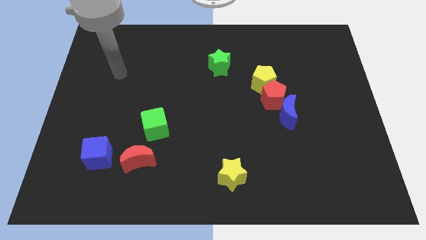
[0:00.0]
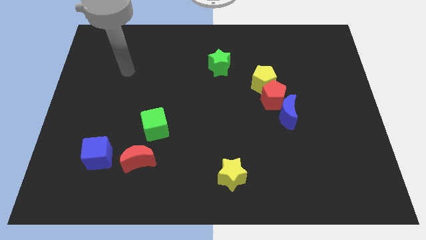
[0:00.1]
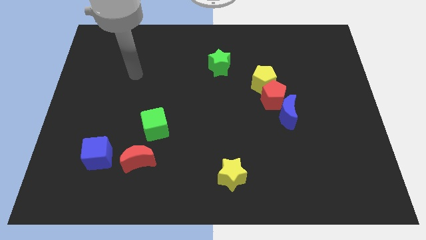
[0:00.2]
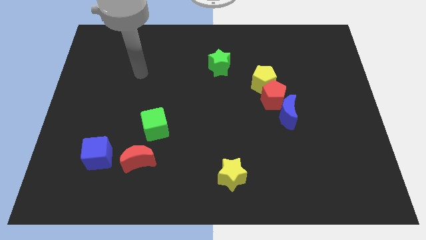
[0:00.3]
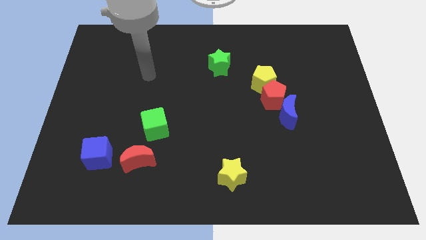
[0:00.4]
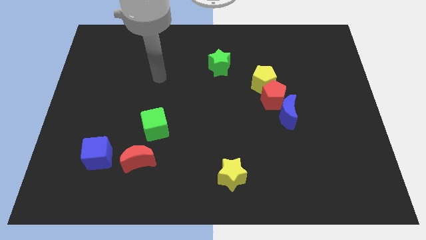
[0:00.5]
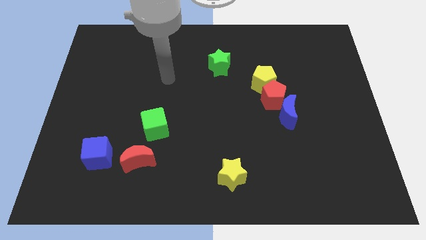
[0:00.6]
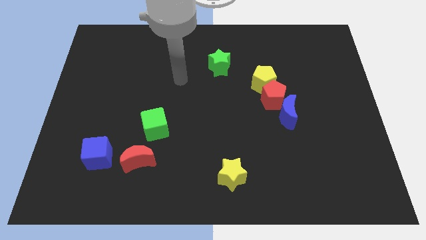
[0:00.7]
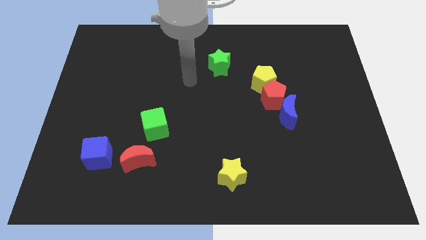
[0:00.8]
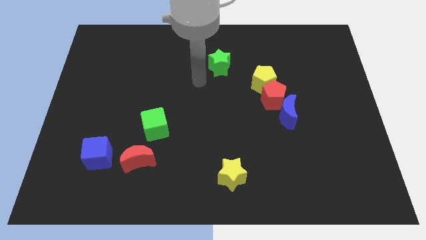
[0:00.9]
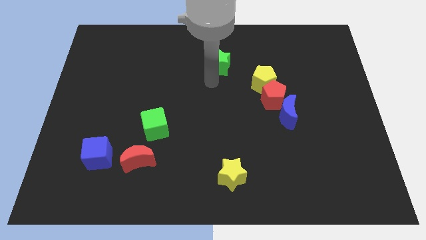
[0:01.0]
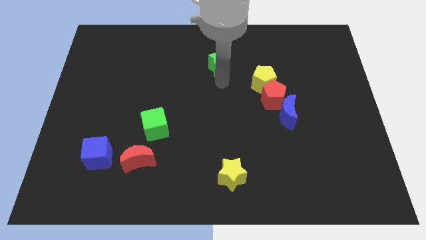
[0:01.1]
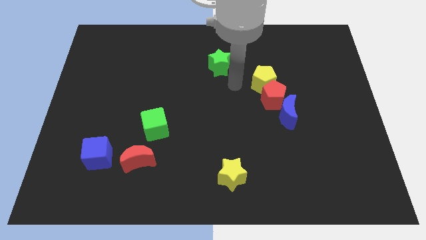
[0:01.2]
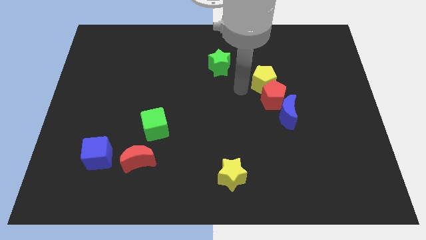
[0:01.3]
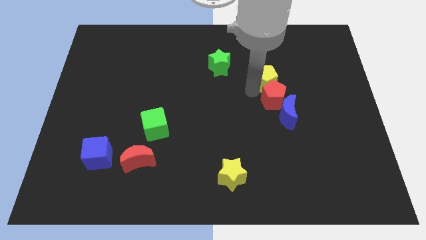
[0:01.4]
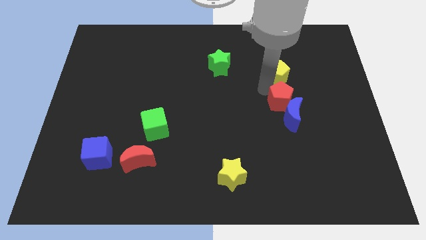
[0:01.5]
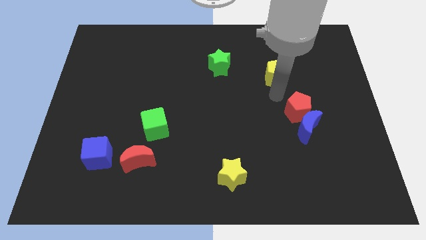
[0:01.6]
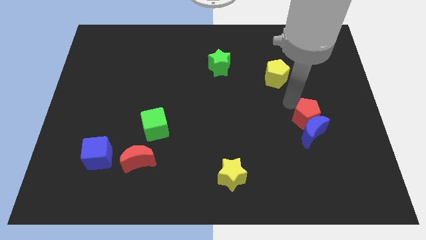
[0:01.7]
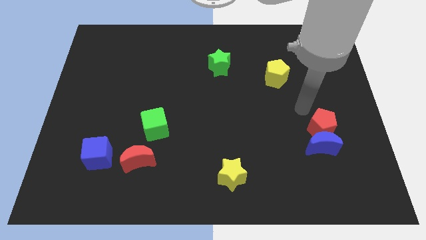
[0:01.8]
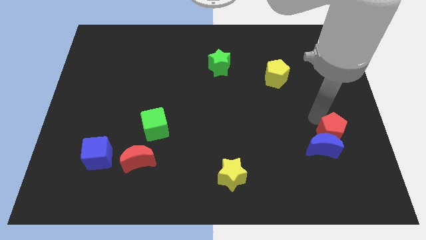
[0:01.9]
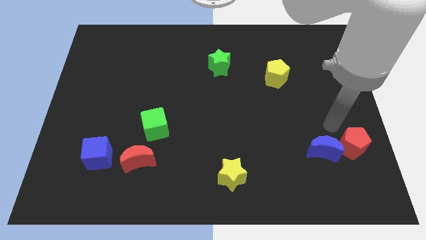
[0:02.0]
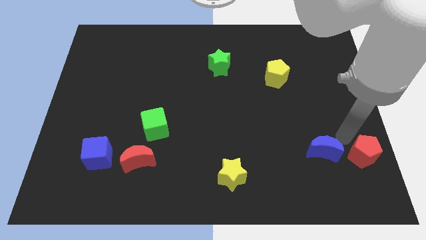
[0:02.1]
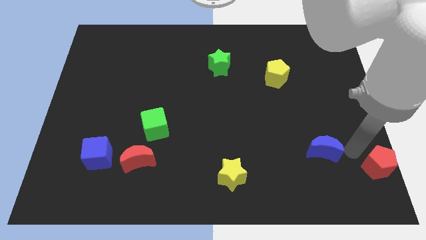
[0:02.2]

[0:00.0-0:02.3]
pull the blue moon apart from the red pentagon

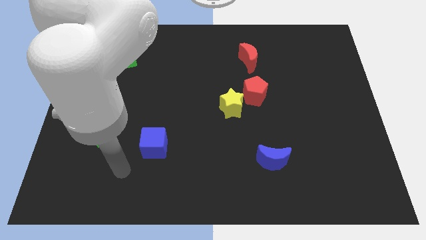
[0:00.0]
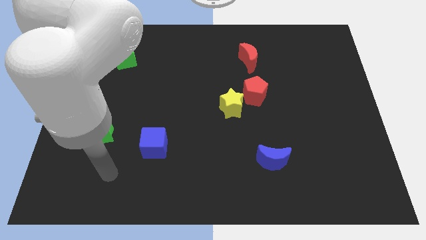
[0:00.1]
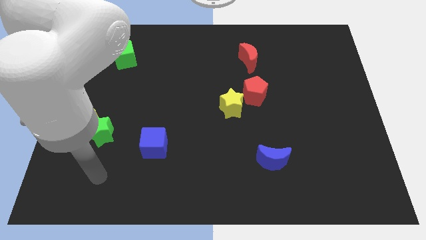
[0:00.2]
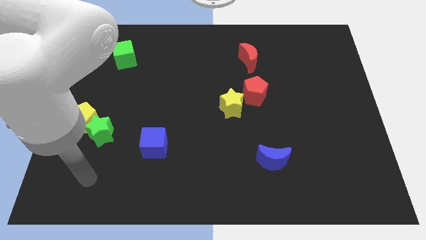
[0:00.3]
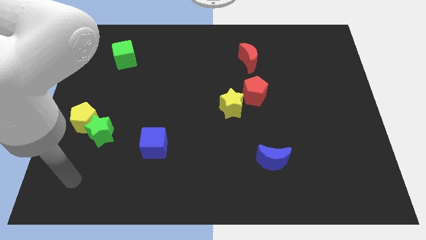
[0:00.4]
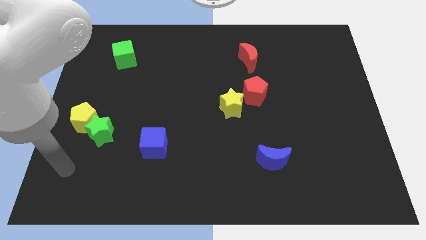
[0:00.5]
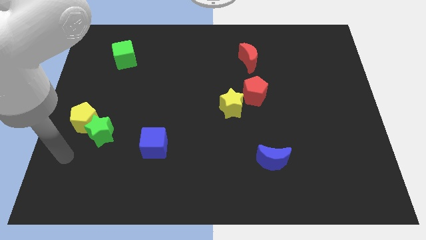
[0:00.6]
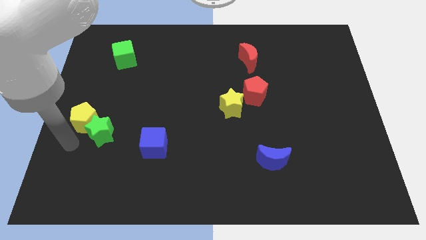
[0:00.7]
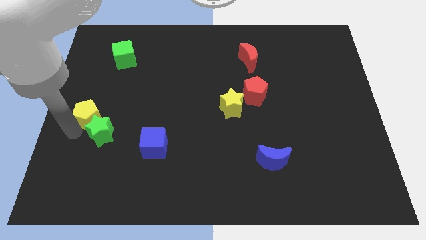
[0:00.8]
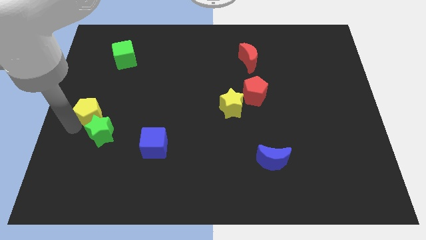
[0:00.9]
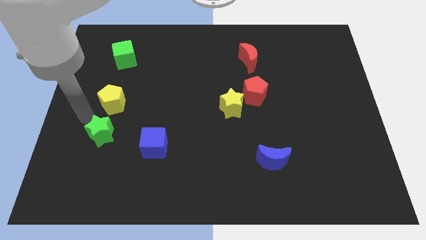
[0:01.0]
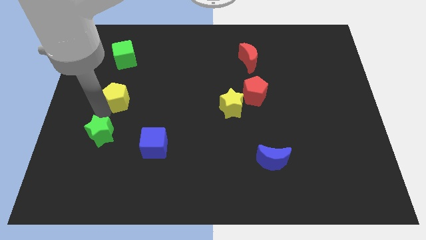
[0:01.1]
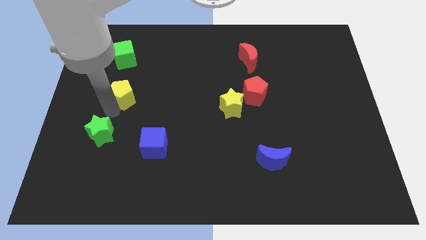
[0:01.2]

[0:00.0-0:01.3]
pull the green star apart from the yellow pentagon

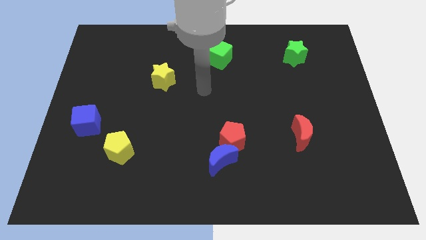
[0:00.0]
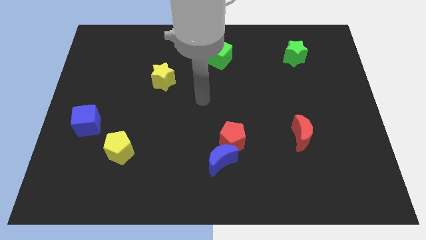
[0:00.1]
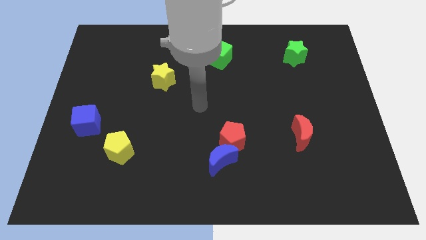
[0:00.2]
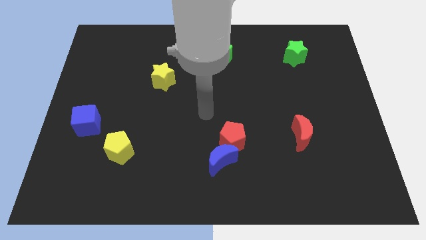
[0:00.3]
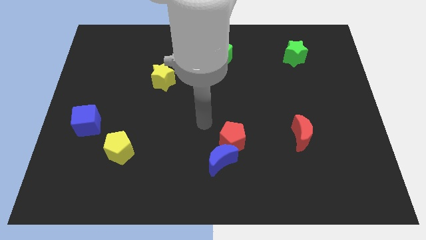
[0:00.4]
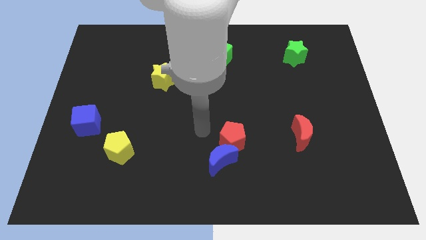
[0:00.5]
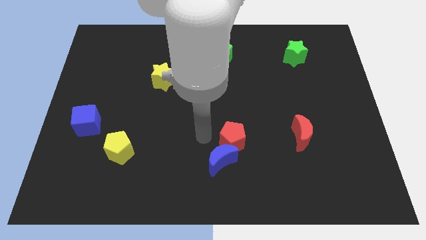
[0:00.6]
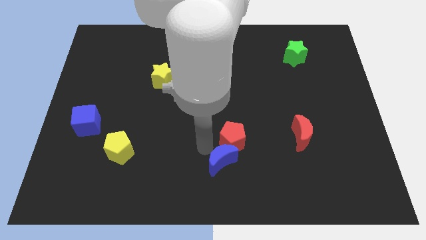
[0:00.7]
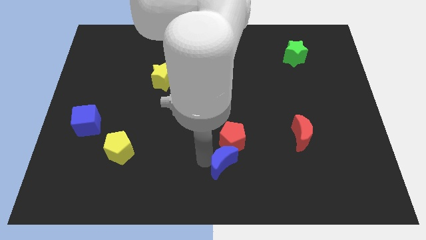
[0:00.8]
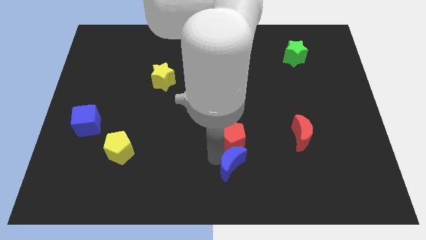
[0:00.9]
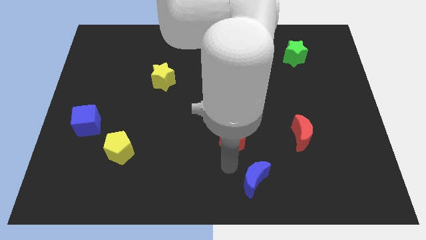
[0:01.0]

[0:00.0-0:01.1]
separate the red pentagon from the blue moon

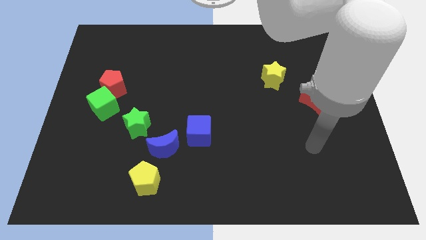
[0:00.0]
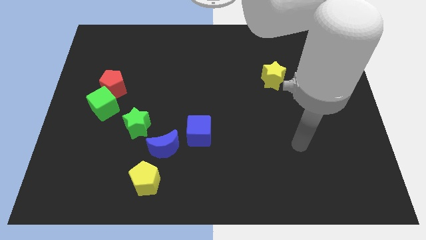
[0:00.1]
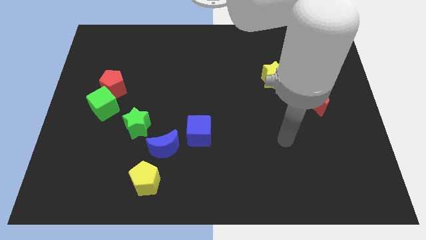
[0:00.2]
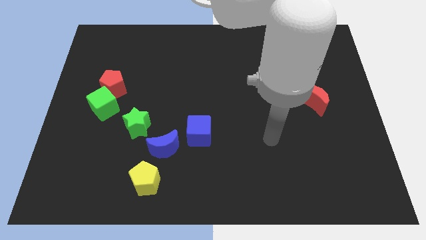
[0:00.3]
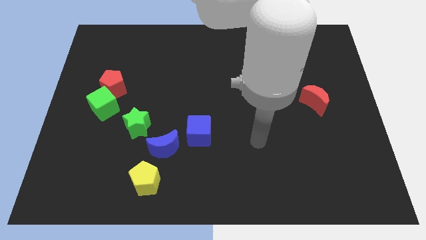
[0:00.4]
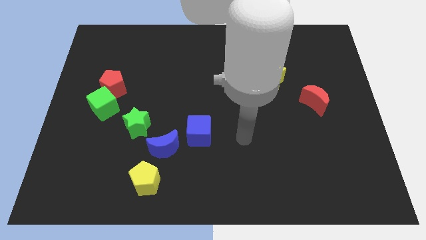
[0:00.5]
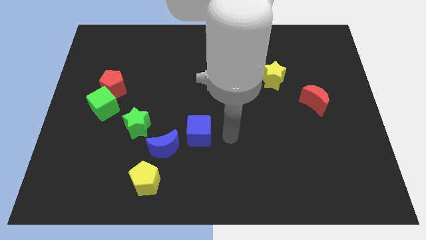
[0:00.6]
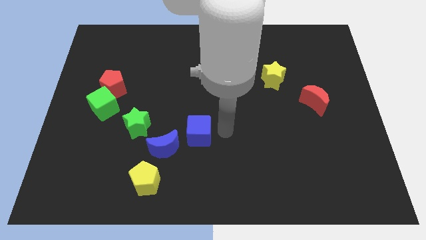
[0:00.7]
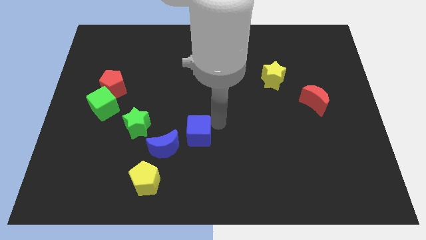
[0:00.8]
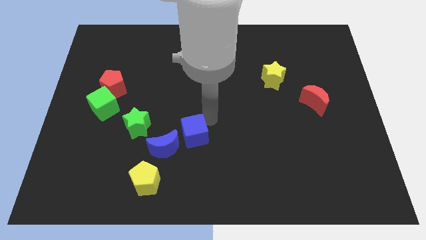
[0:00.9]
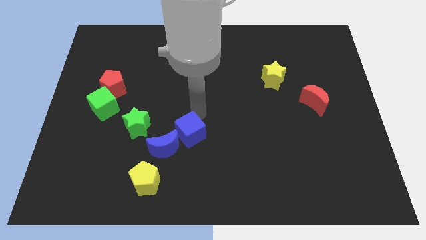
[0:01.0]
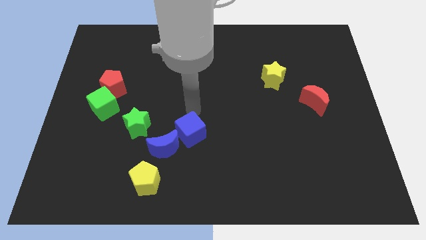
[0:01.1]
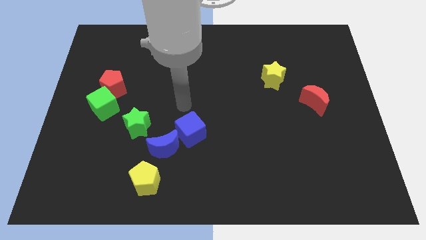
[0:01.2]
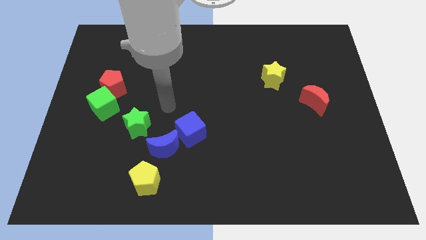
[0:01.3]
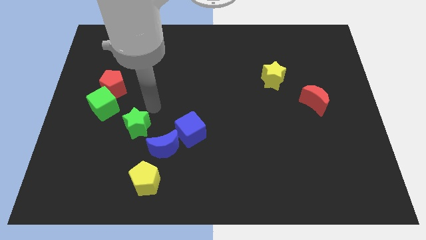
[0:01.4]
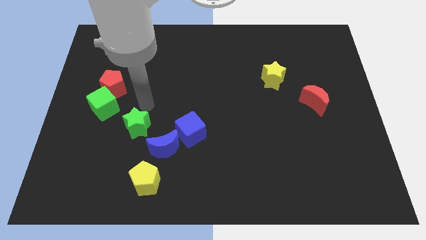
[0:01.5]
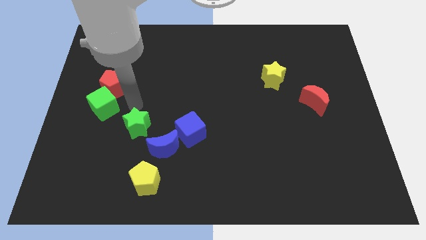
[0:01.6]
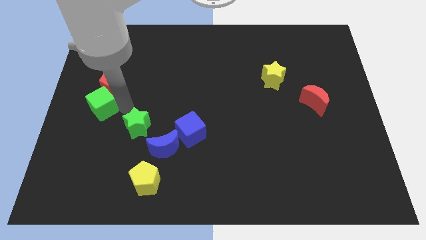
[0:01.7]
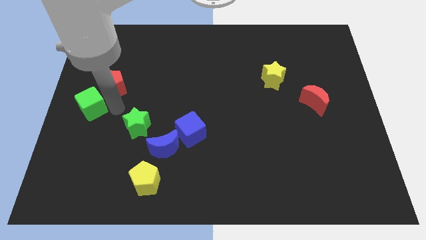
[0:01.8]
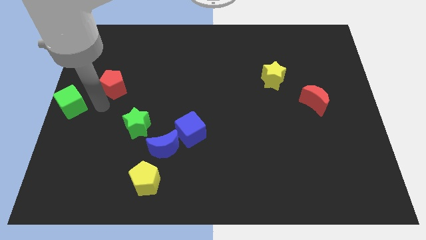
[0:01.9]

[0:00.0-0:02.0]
move the red pentagon away from the green cube

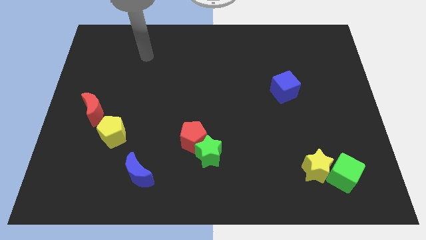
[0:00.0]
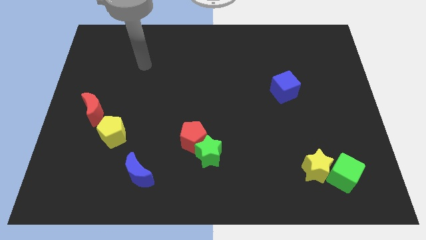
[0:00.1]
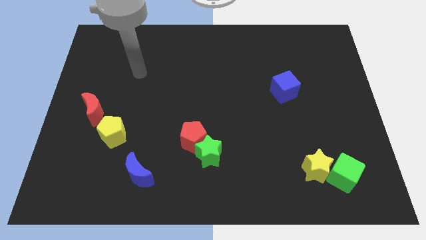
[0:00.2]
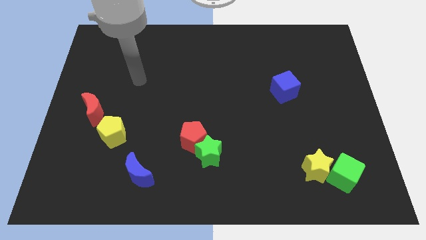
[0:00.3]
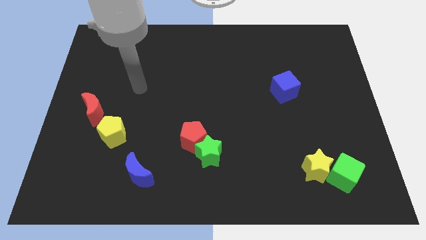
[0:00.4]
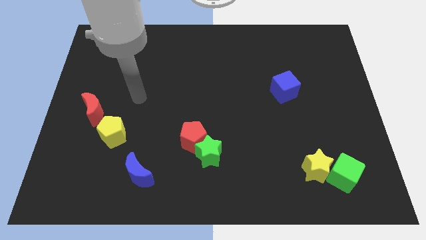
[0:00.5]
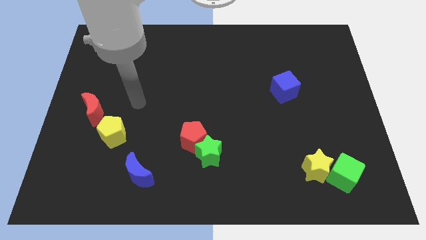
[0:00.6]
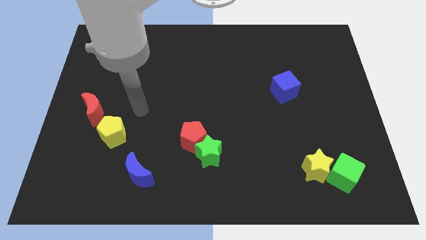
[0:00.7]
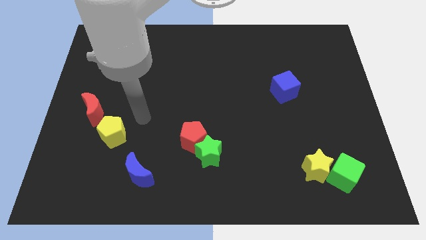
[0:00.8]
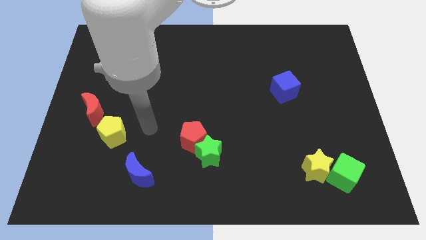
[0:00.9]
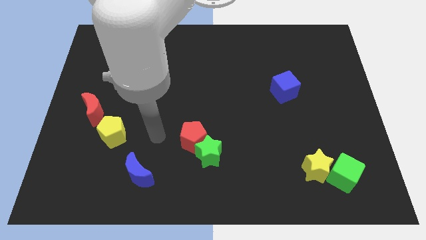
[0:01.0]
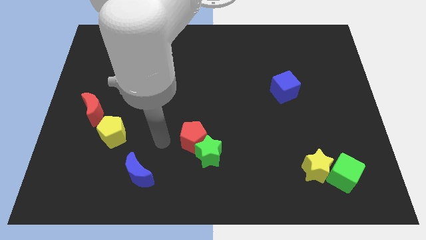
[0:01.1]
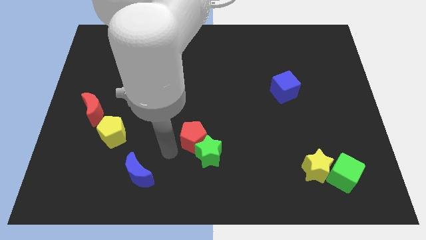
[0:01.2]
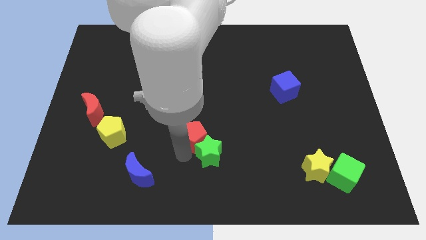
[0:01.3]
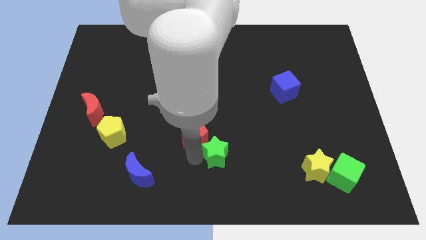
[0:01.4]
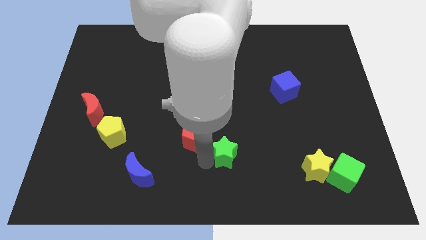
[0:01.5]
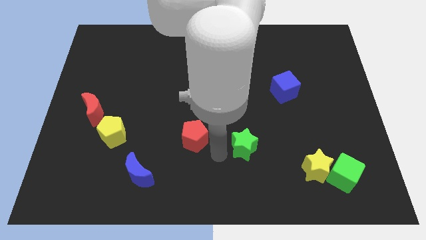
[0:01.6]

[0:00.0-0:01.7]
pull the red pentagon apart from the green star

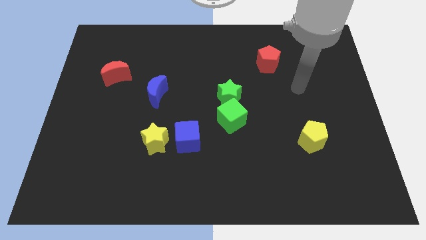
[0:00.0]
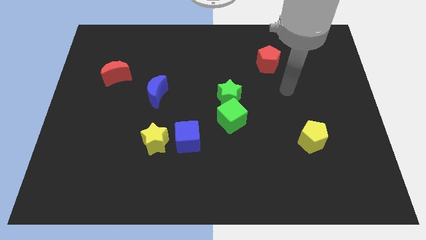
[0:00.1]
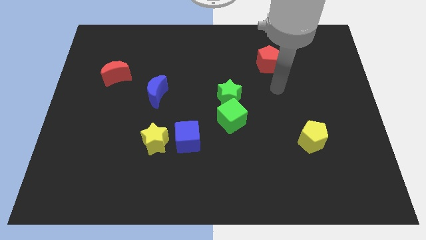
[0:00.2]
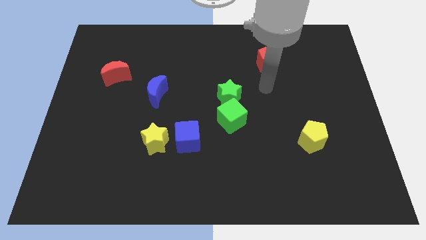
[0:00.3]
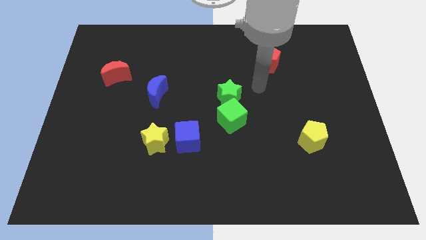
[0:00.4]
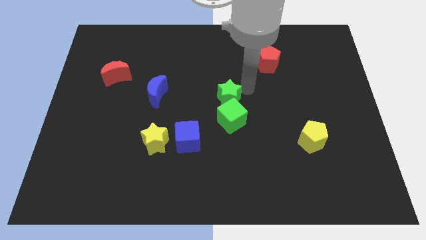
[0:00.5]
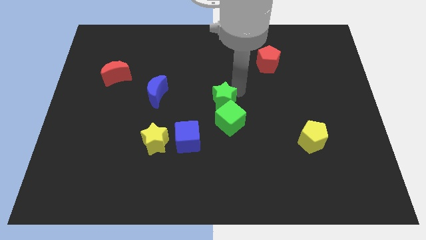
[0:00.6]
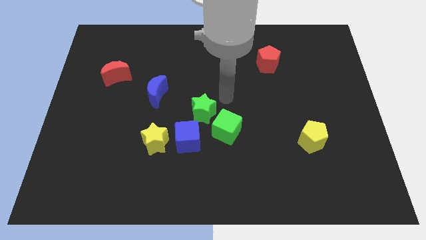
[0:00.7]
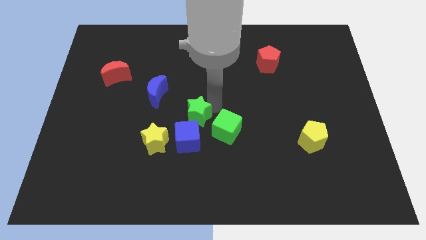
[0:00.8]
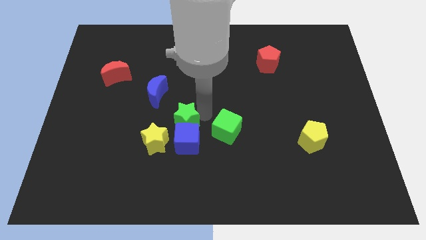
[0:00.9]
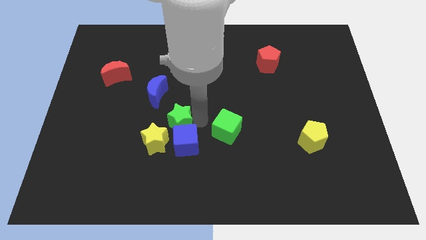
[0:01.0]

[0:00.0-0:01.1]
pull the green cube apart from the green star
